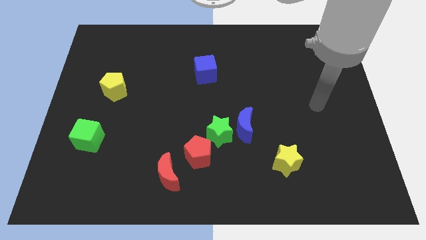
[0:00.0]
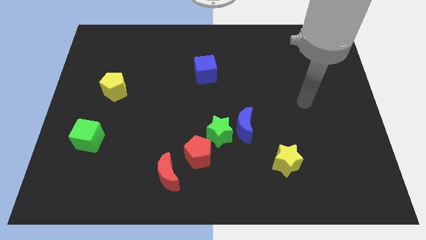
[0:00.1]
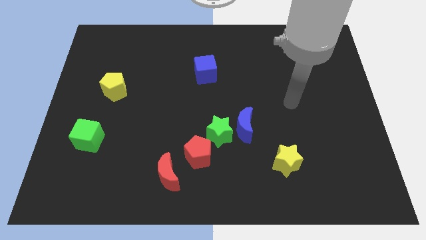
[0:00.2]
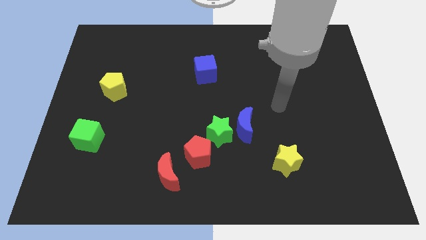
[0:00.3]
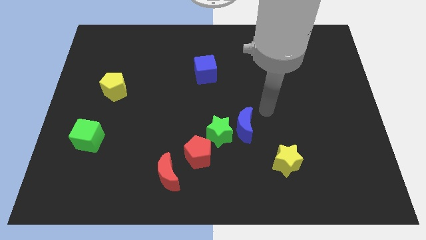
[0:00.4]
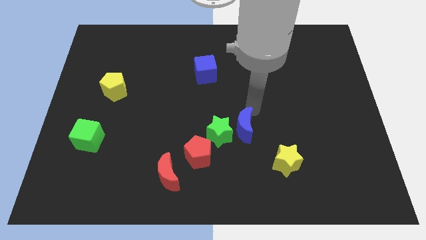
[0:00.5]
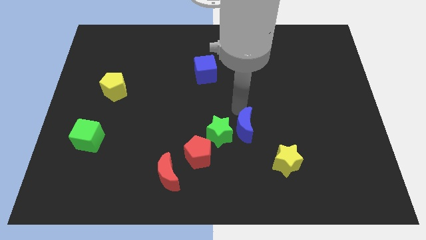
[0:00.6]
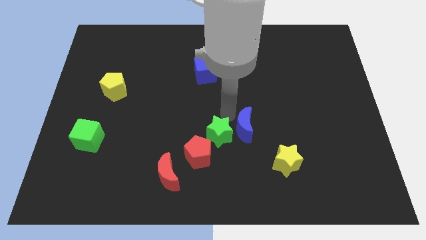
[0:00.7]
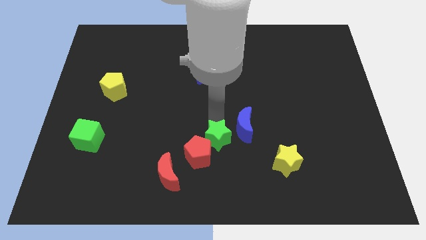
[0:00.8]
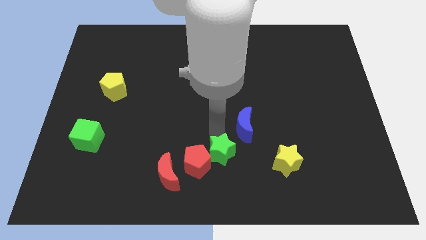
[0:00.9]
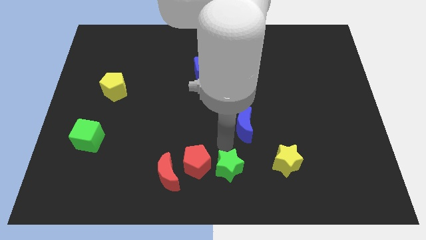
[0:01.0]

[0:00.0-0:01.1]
move the blue moon away from the green star

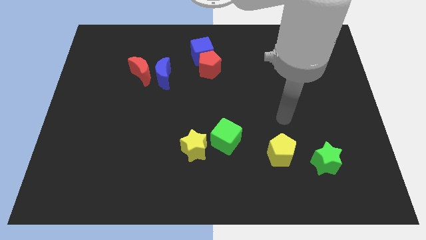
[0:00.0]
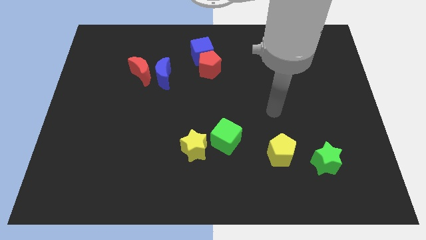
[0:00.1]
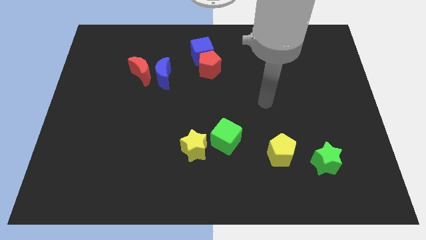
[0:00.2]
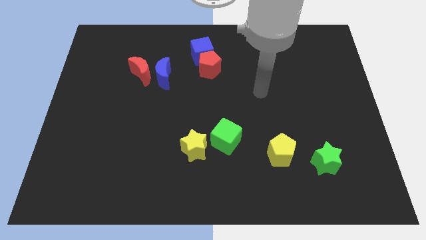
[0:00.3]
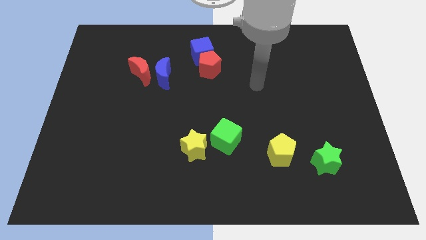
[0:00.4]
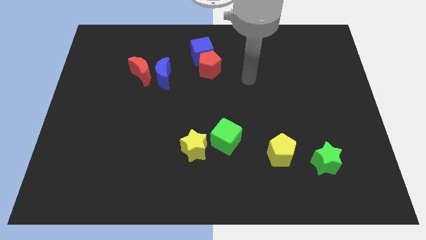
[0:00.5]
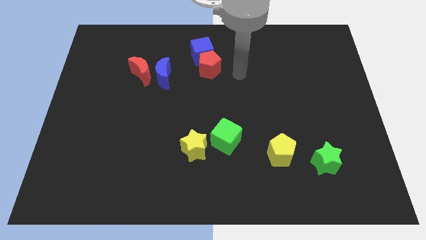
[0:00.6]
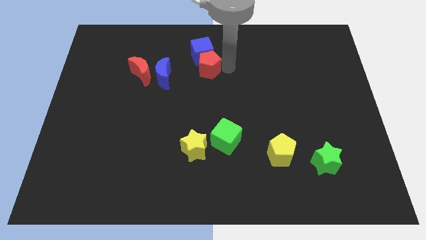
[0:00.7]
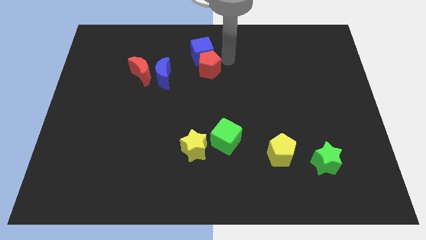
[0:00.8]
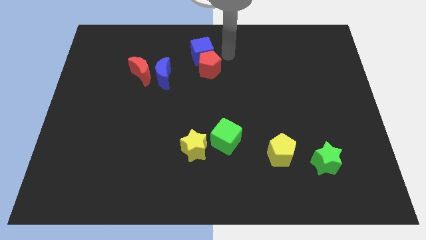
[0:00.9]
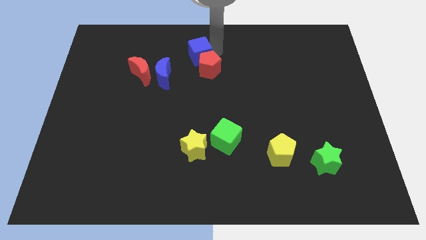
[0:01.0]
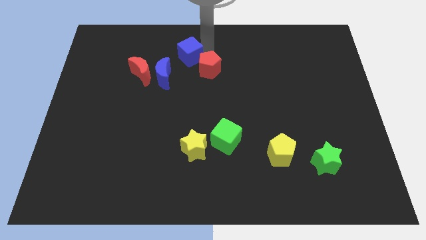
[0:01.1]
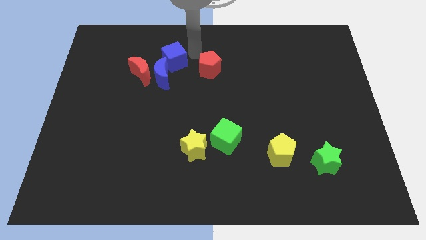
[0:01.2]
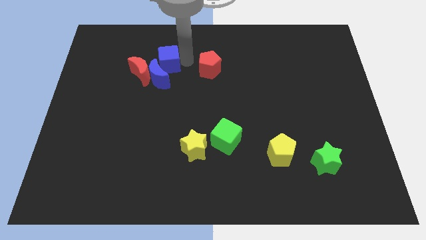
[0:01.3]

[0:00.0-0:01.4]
separate the red pentagon from the blue cube

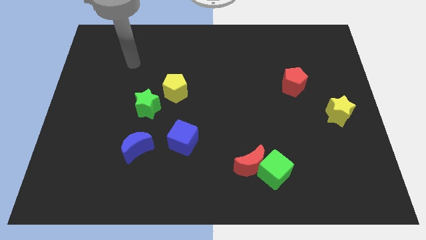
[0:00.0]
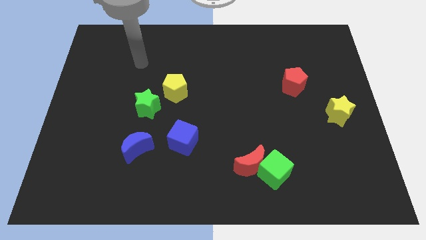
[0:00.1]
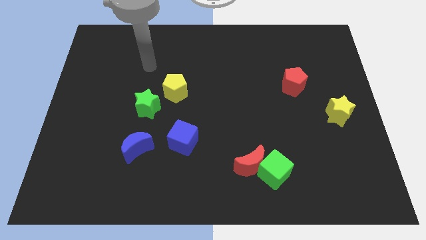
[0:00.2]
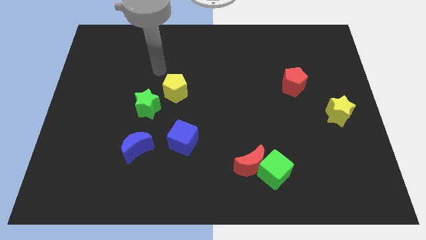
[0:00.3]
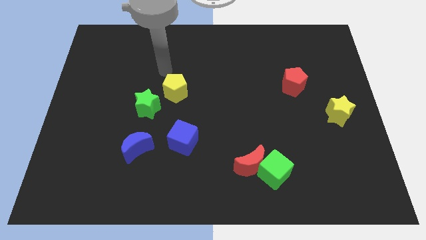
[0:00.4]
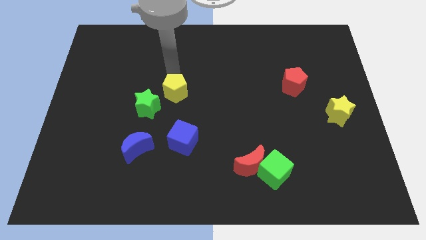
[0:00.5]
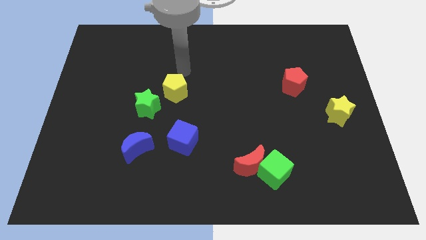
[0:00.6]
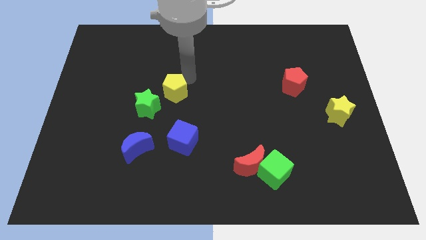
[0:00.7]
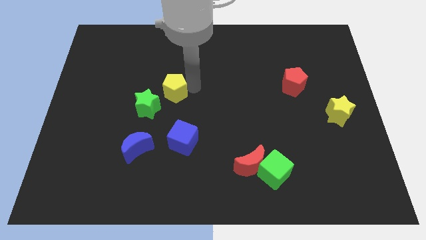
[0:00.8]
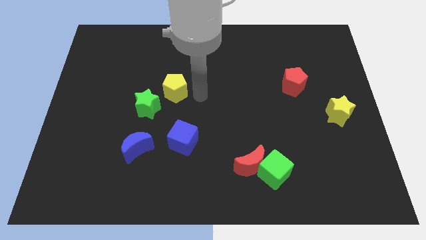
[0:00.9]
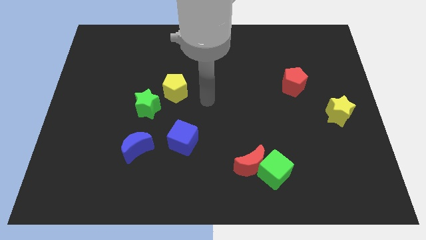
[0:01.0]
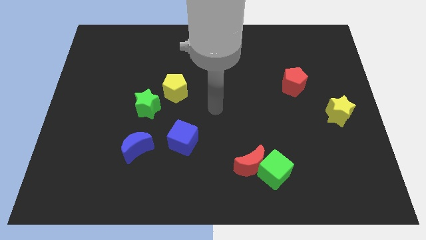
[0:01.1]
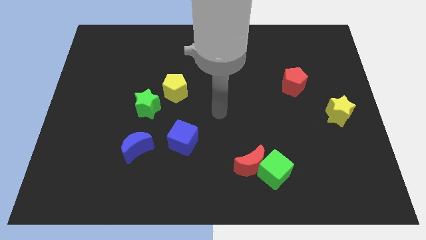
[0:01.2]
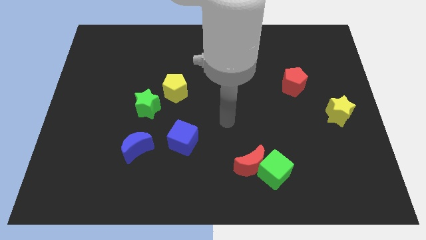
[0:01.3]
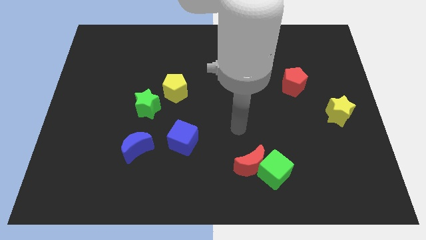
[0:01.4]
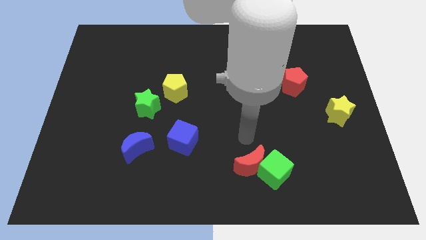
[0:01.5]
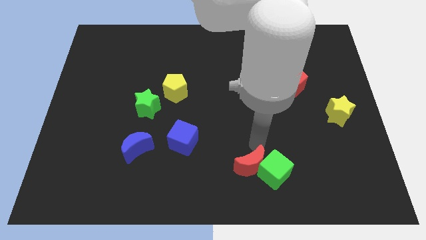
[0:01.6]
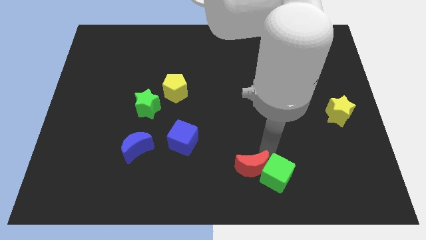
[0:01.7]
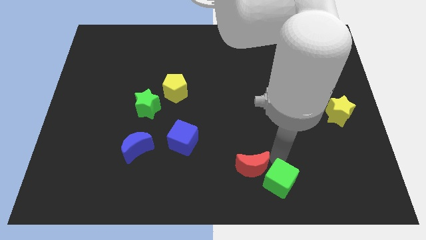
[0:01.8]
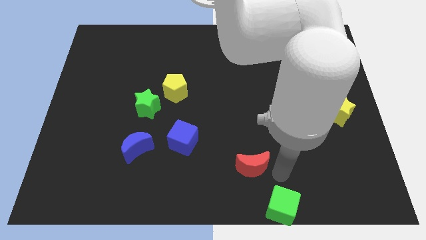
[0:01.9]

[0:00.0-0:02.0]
move the red moon away from the green cube

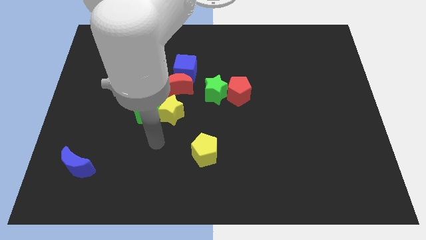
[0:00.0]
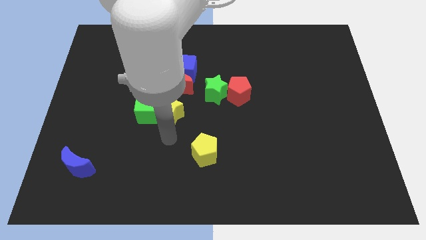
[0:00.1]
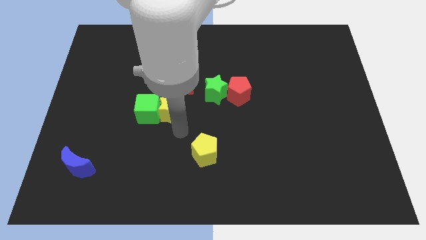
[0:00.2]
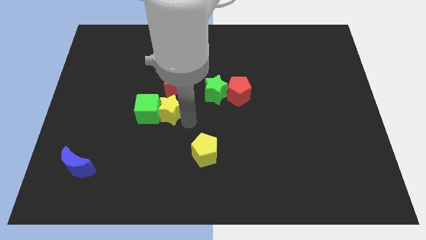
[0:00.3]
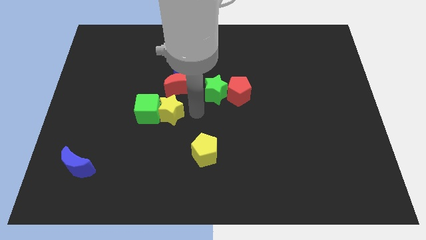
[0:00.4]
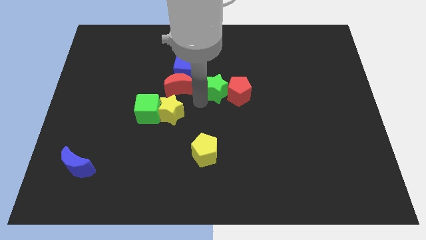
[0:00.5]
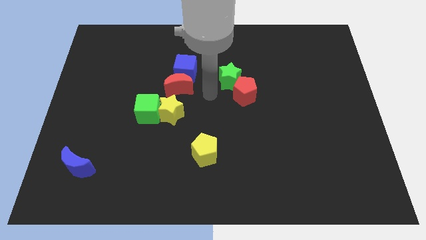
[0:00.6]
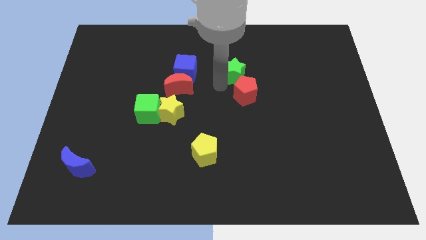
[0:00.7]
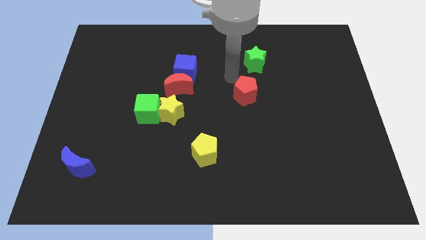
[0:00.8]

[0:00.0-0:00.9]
move the red pentagon away from the green star

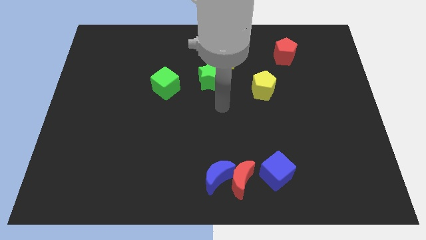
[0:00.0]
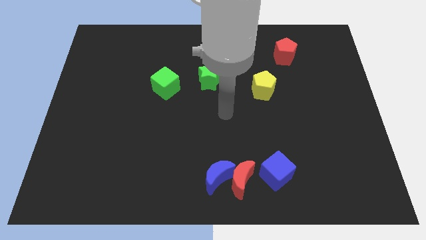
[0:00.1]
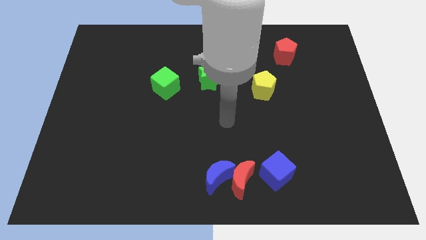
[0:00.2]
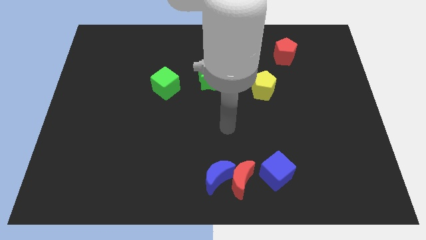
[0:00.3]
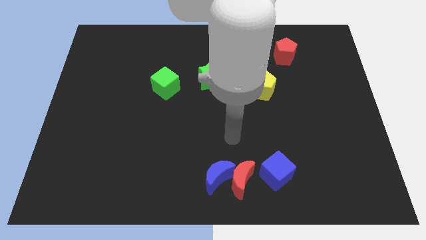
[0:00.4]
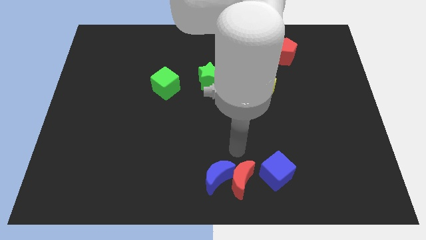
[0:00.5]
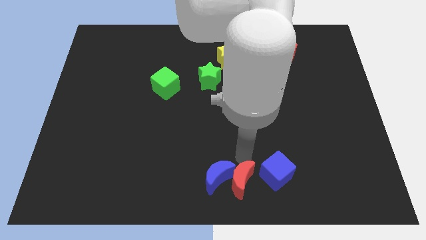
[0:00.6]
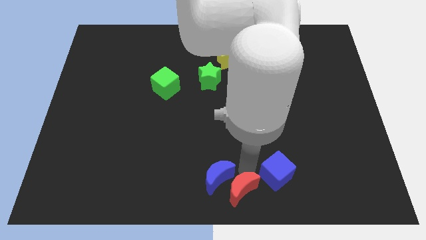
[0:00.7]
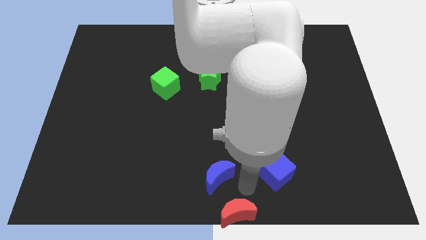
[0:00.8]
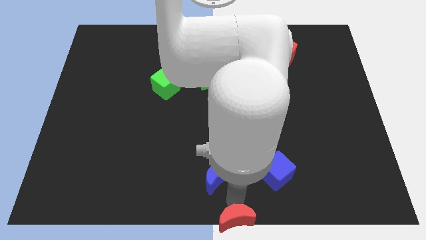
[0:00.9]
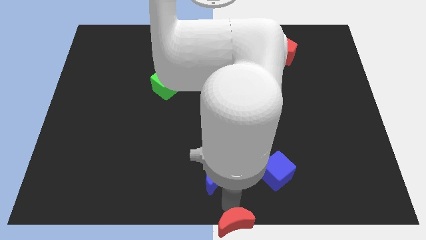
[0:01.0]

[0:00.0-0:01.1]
separate the blue moon from the red moon

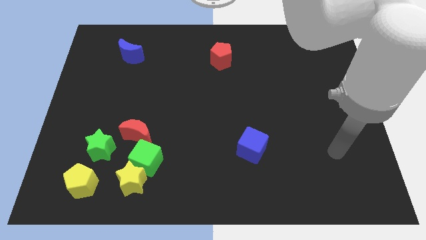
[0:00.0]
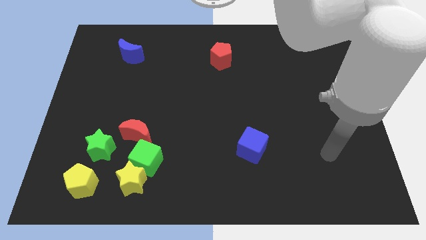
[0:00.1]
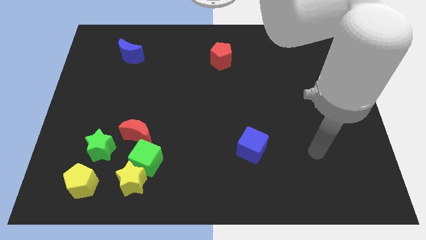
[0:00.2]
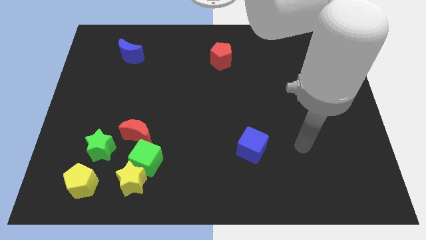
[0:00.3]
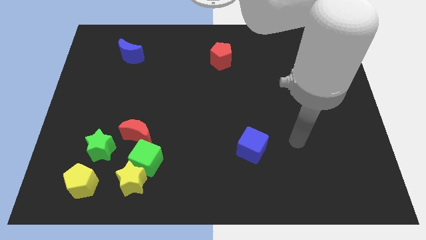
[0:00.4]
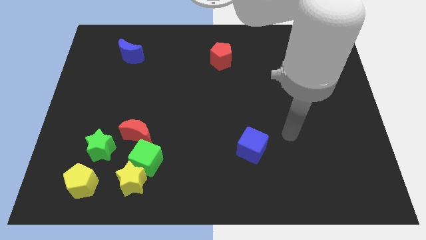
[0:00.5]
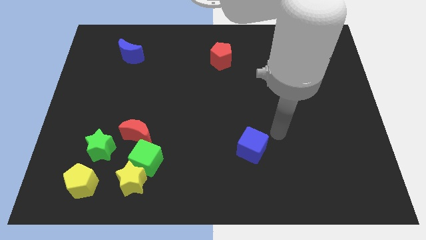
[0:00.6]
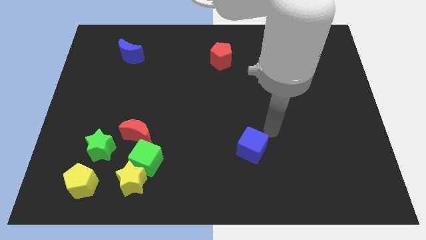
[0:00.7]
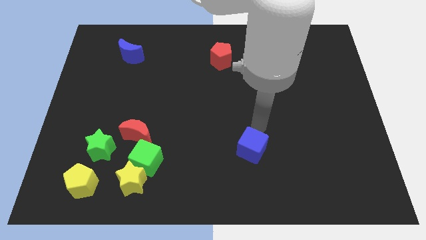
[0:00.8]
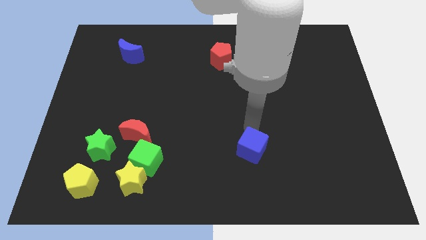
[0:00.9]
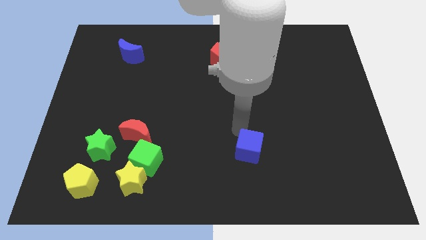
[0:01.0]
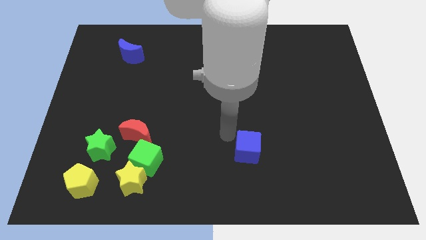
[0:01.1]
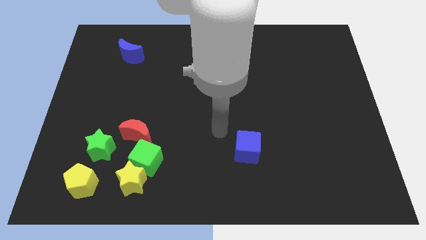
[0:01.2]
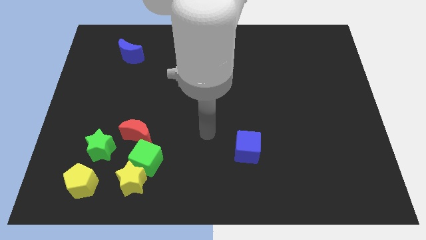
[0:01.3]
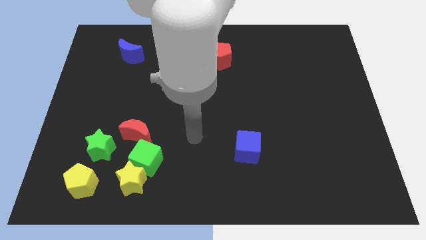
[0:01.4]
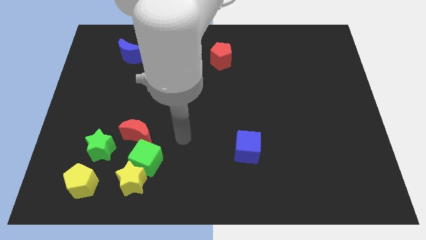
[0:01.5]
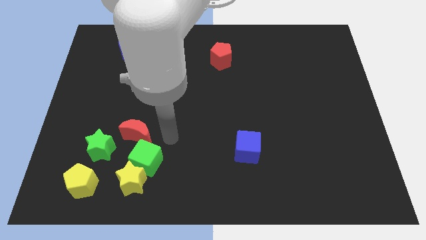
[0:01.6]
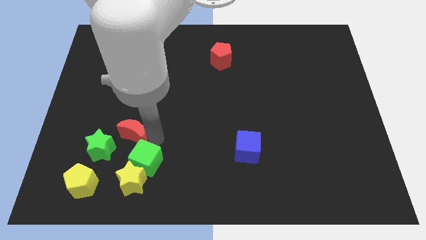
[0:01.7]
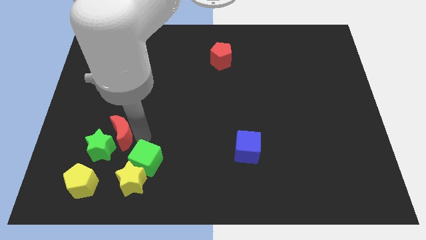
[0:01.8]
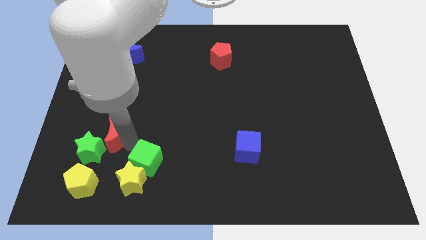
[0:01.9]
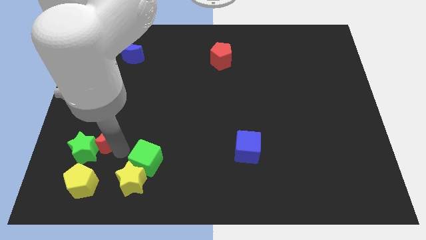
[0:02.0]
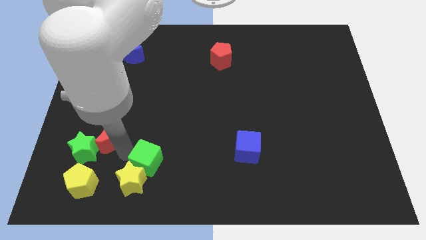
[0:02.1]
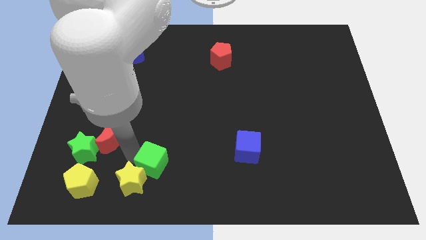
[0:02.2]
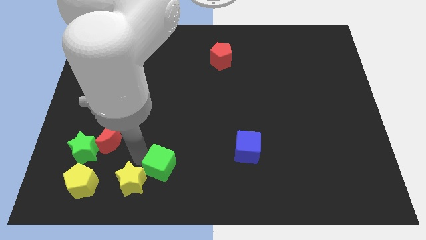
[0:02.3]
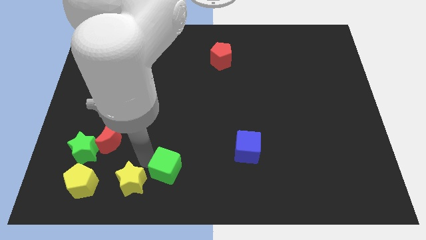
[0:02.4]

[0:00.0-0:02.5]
separate the green cube from the yellow star and red moon

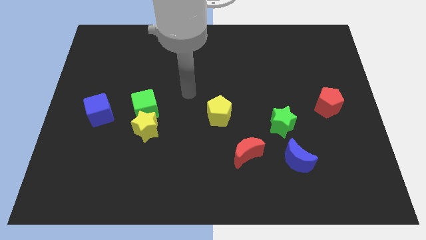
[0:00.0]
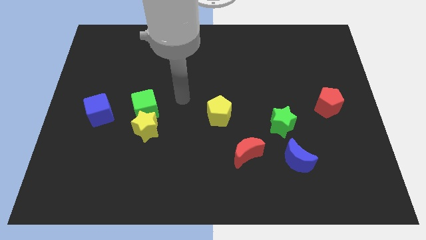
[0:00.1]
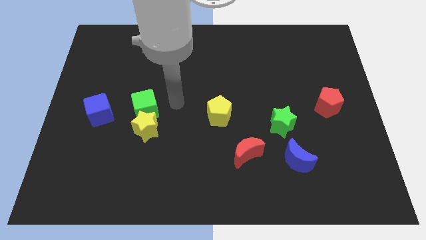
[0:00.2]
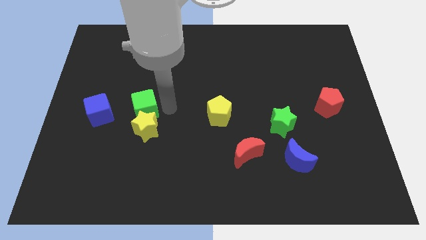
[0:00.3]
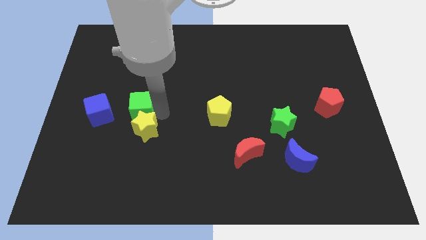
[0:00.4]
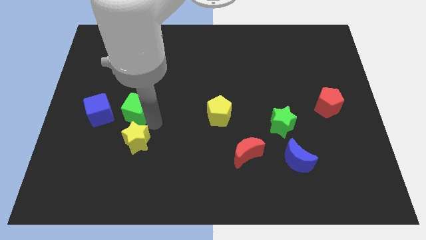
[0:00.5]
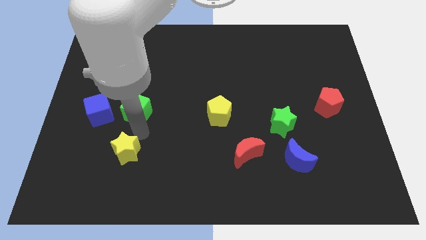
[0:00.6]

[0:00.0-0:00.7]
move the green cube away from the yellow star
